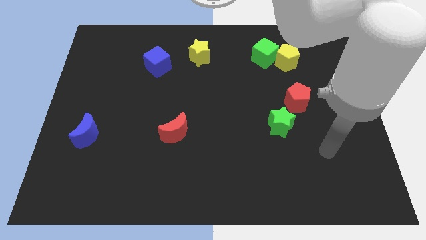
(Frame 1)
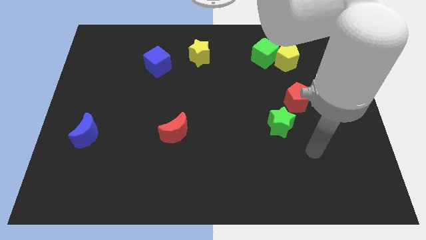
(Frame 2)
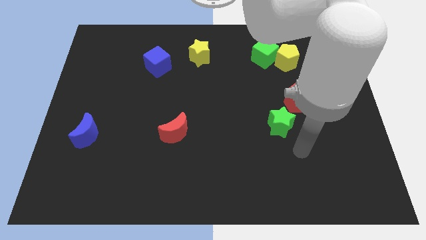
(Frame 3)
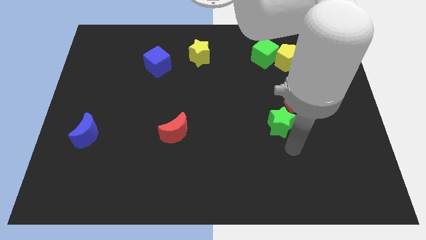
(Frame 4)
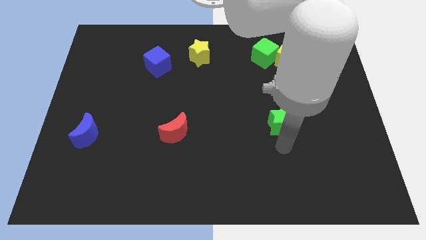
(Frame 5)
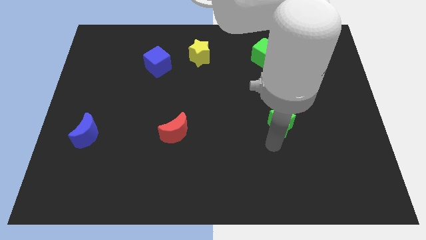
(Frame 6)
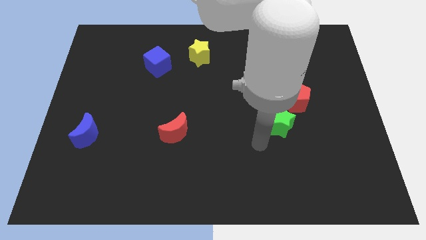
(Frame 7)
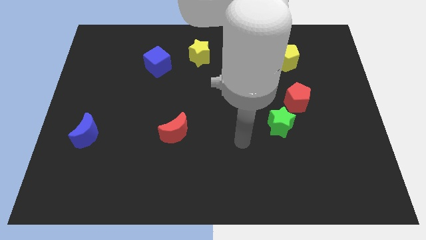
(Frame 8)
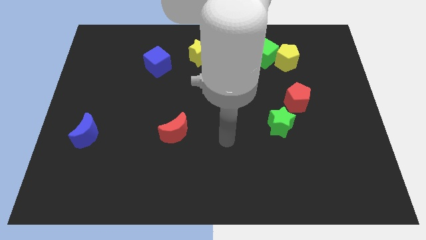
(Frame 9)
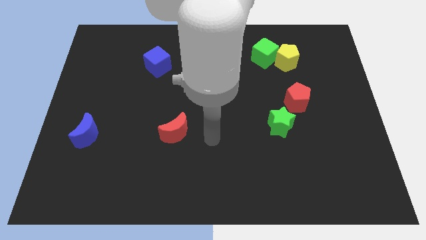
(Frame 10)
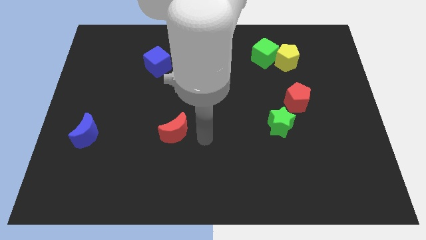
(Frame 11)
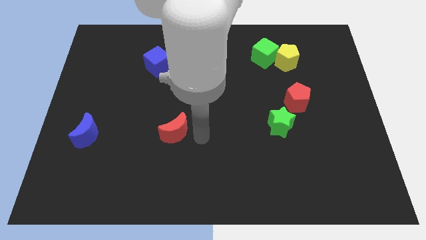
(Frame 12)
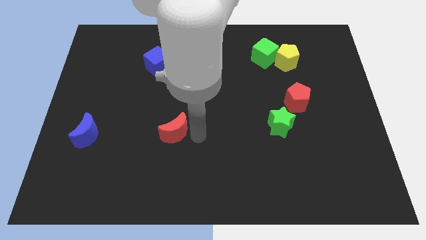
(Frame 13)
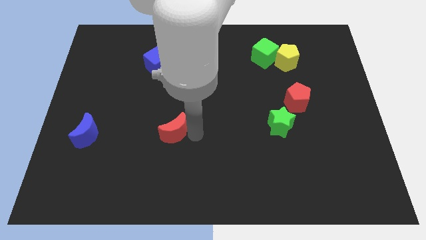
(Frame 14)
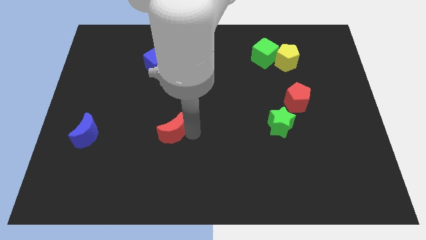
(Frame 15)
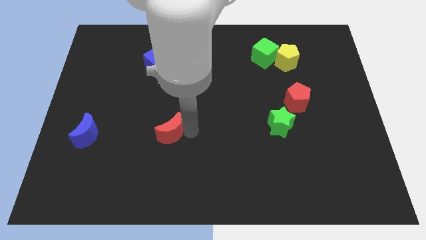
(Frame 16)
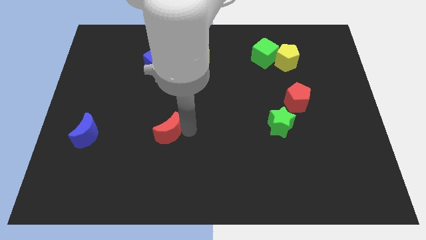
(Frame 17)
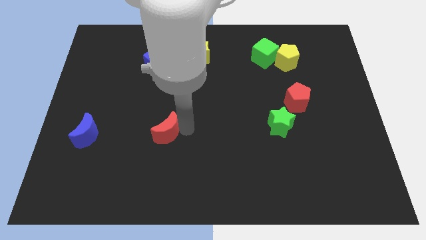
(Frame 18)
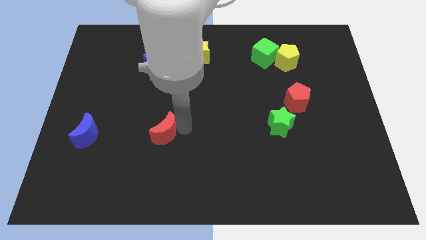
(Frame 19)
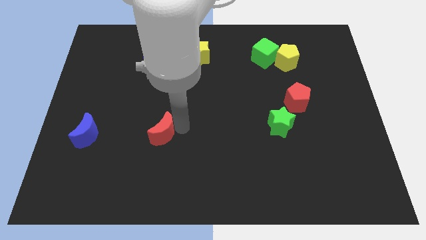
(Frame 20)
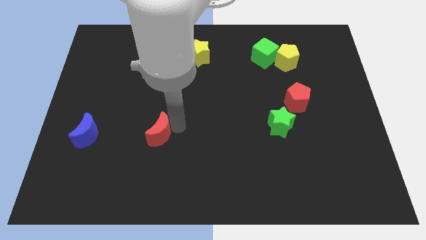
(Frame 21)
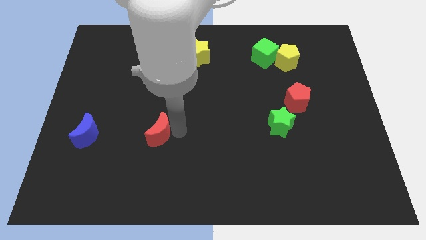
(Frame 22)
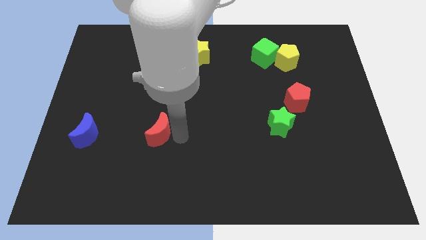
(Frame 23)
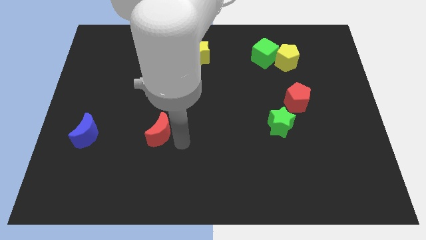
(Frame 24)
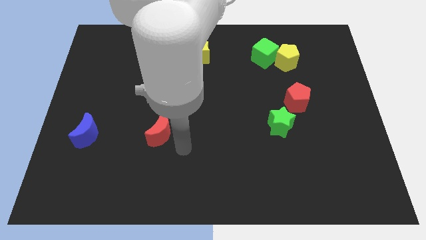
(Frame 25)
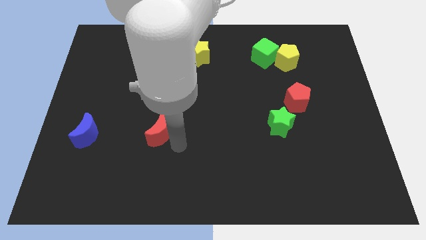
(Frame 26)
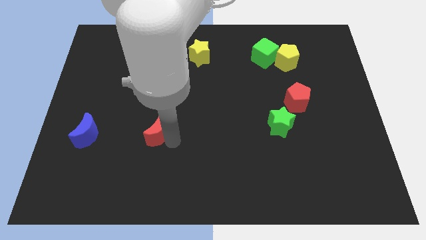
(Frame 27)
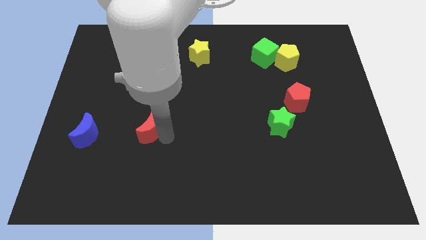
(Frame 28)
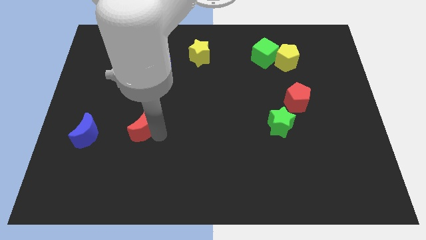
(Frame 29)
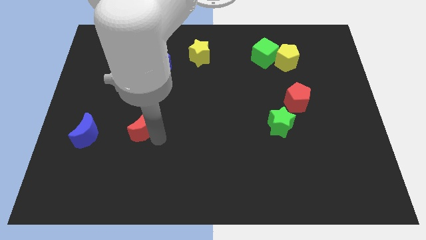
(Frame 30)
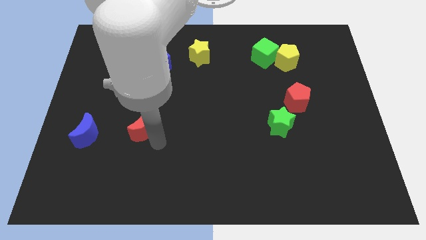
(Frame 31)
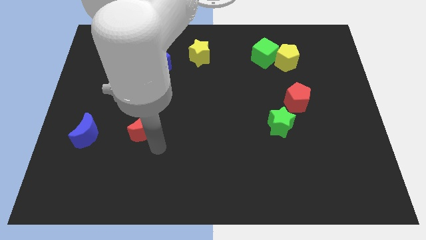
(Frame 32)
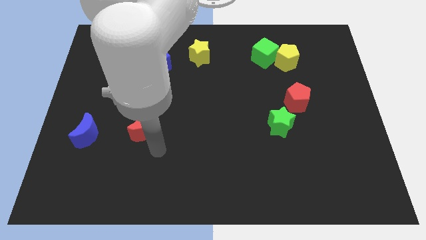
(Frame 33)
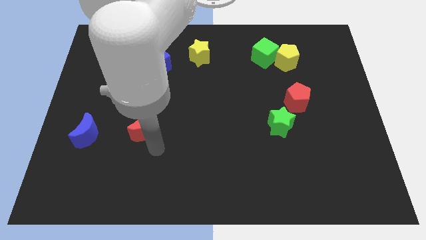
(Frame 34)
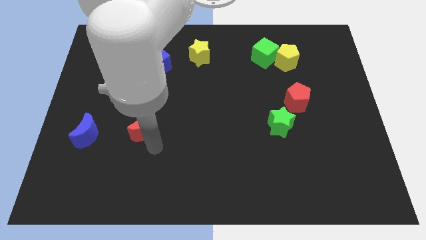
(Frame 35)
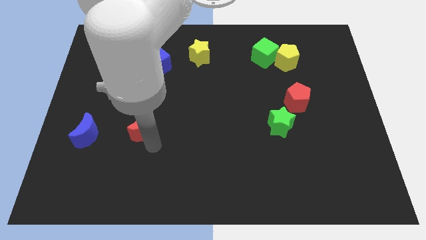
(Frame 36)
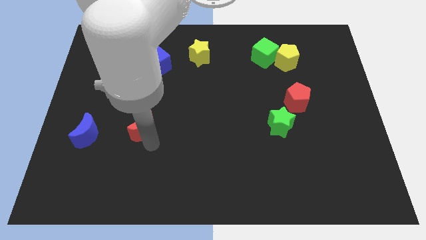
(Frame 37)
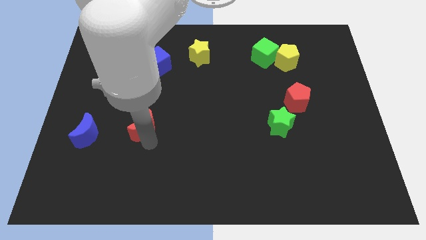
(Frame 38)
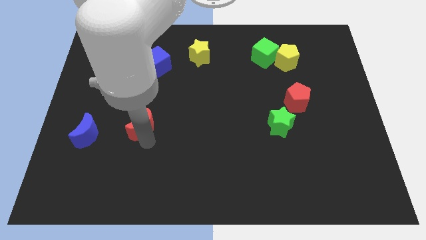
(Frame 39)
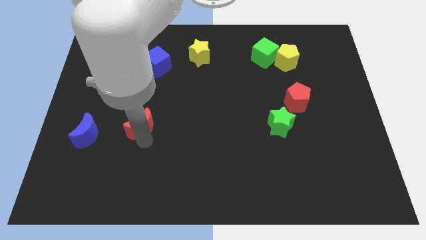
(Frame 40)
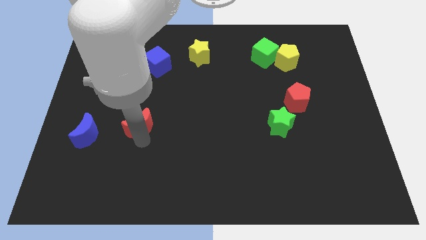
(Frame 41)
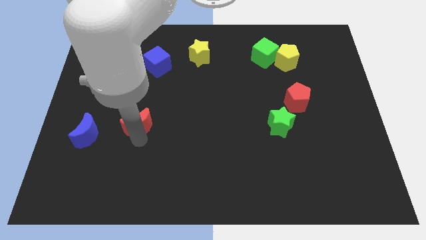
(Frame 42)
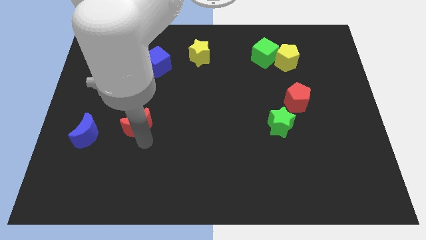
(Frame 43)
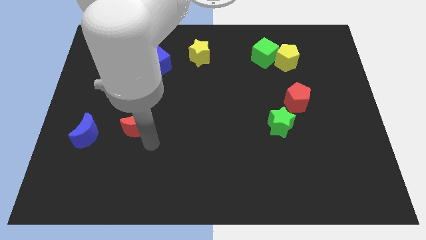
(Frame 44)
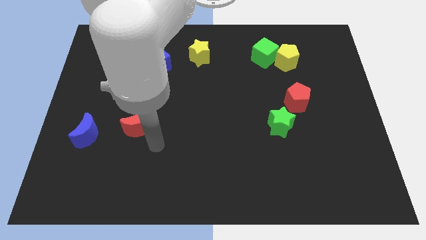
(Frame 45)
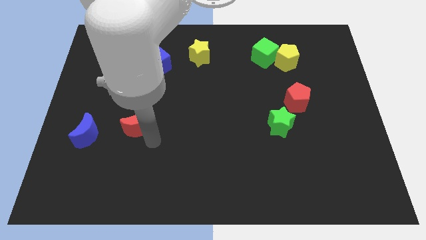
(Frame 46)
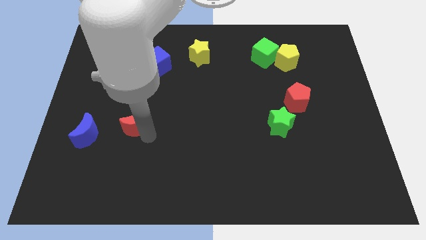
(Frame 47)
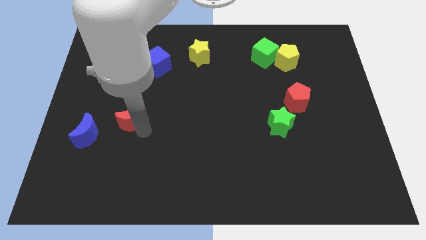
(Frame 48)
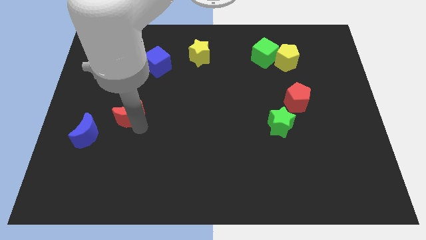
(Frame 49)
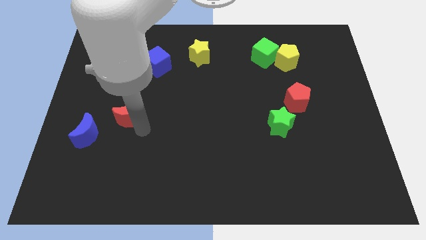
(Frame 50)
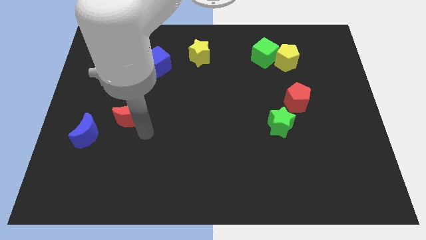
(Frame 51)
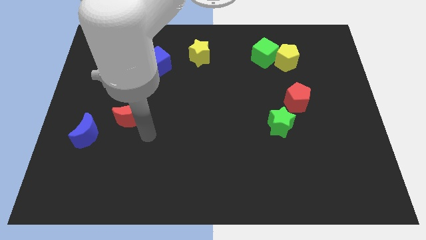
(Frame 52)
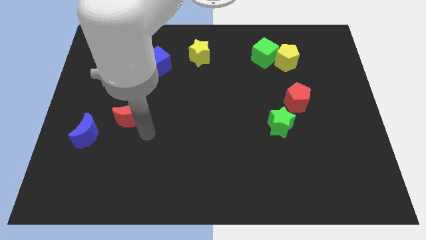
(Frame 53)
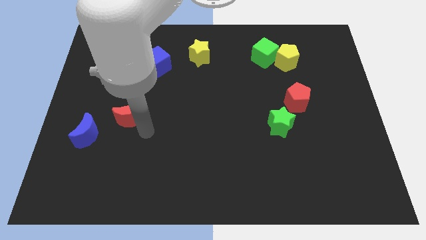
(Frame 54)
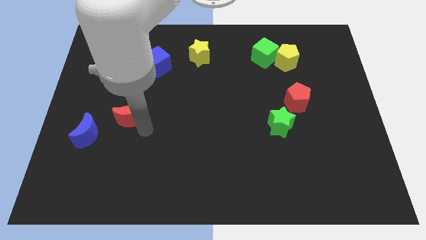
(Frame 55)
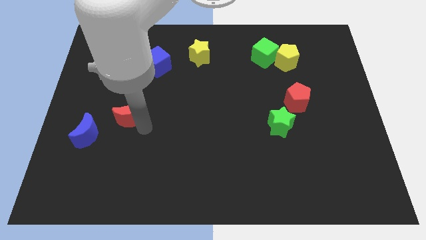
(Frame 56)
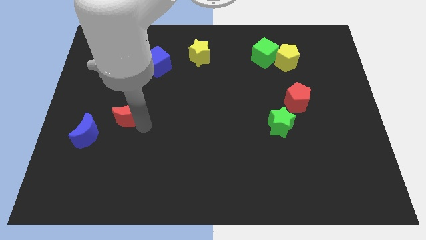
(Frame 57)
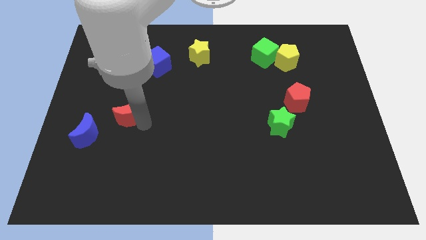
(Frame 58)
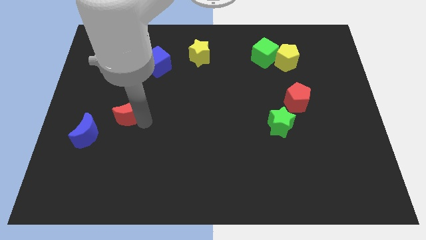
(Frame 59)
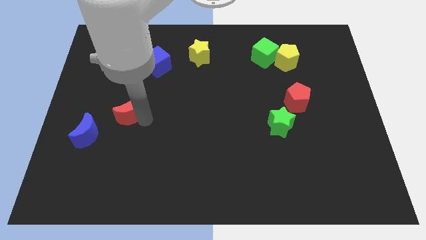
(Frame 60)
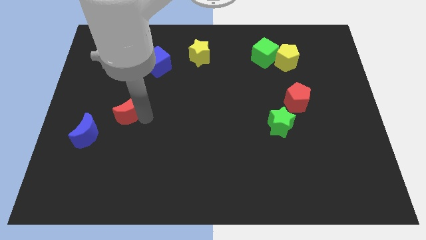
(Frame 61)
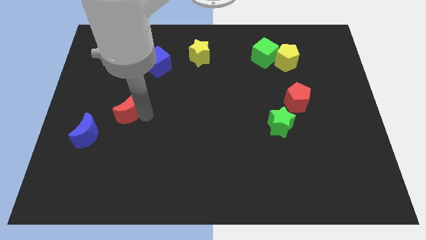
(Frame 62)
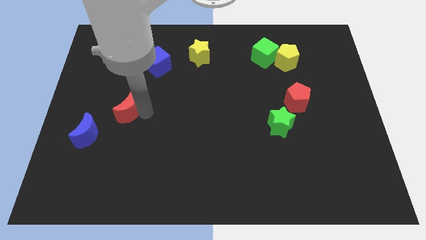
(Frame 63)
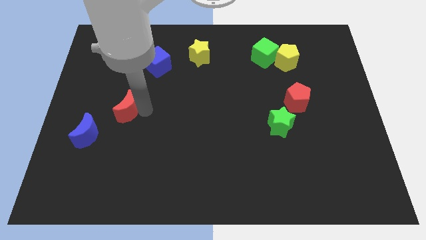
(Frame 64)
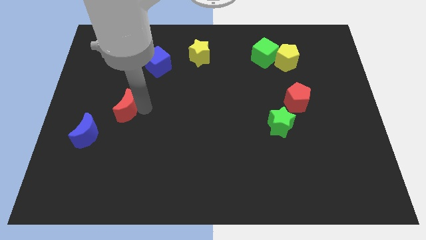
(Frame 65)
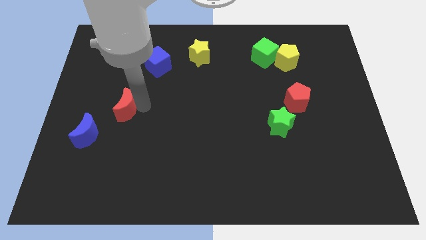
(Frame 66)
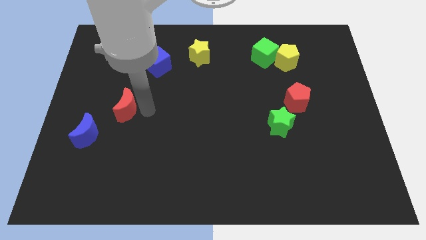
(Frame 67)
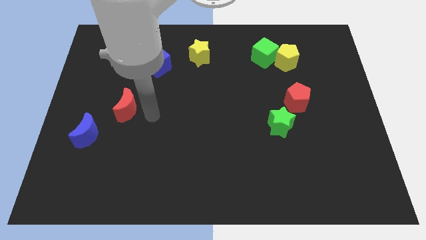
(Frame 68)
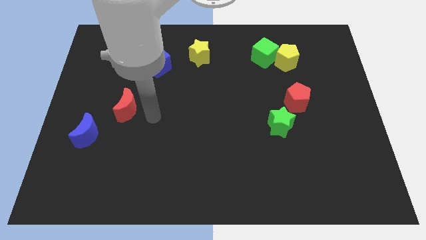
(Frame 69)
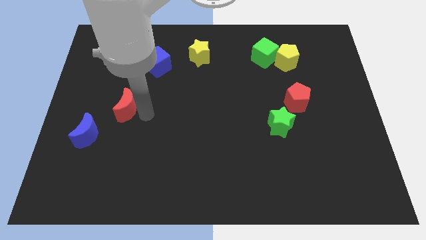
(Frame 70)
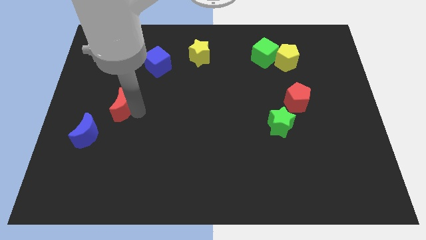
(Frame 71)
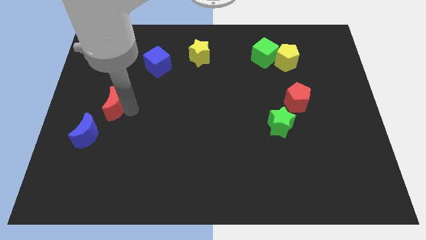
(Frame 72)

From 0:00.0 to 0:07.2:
push the red moon above the blue moon
